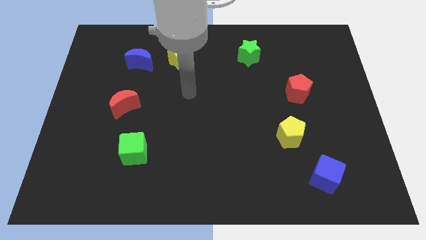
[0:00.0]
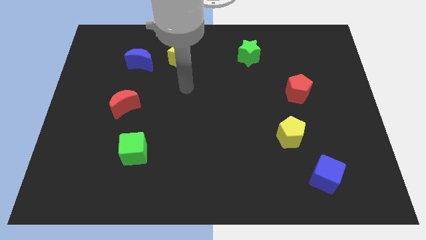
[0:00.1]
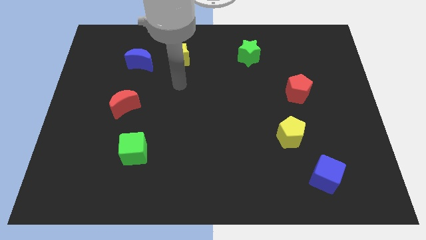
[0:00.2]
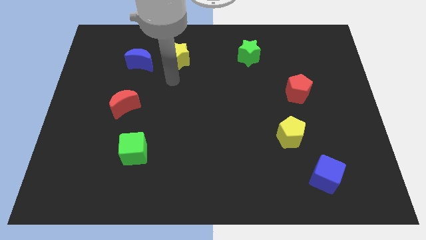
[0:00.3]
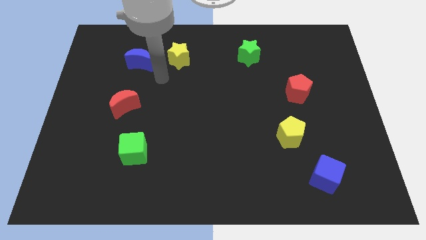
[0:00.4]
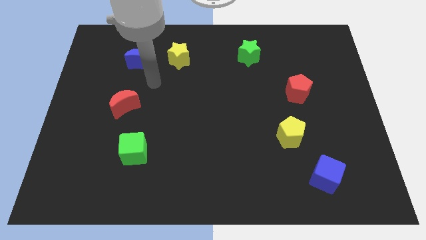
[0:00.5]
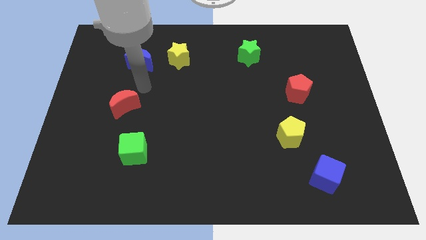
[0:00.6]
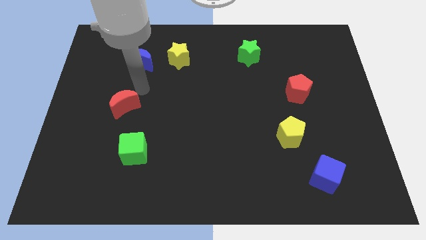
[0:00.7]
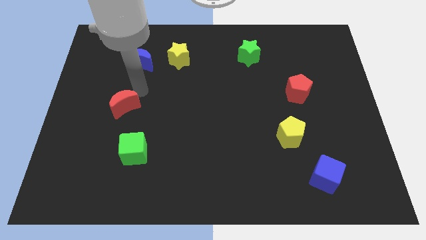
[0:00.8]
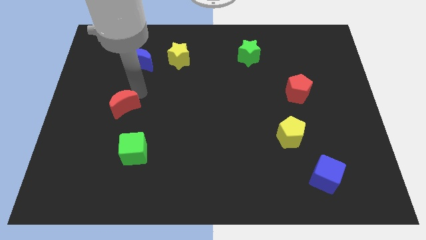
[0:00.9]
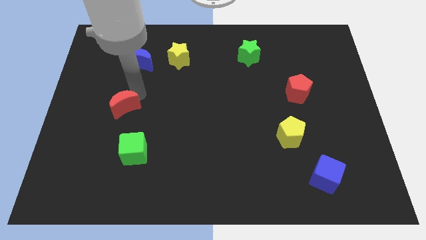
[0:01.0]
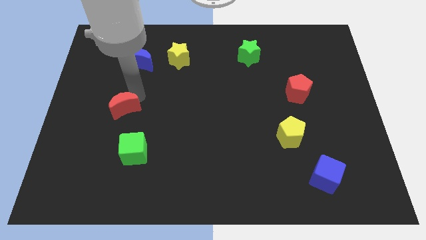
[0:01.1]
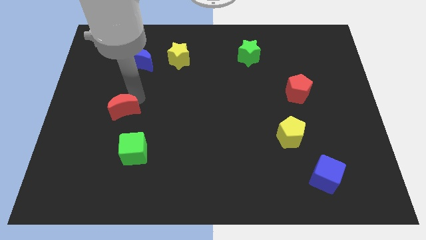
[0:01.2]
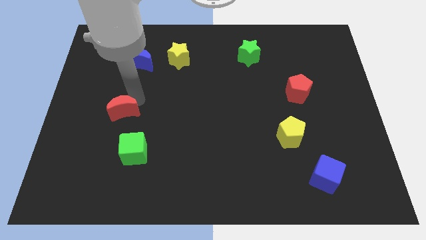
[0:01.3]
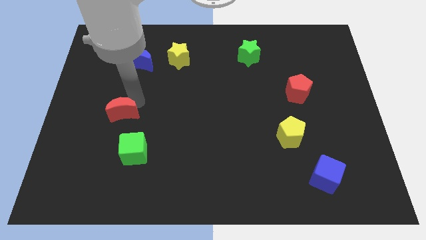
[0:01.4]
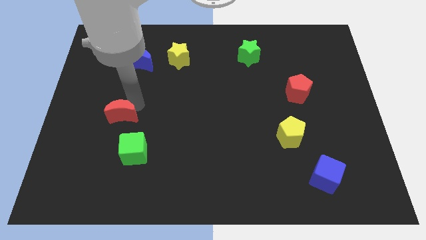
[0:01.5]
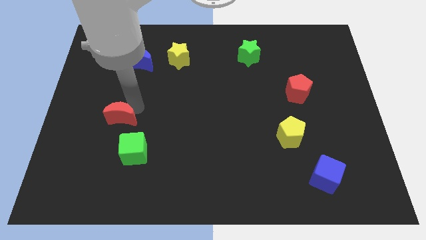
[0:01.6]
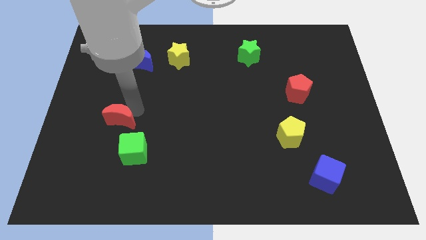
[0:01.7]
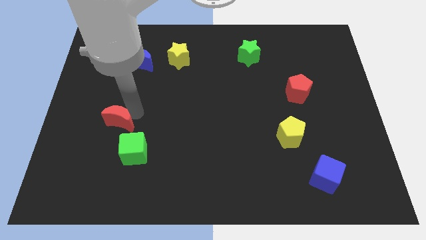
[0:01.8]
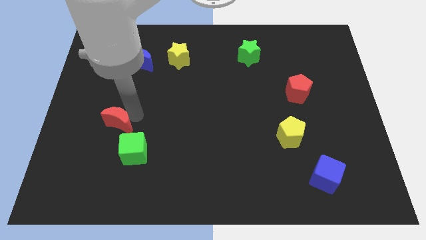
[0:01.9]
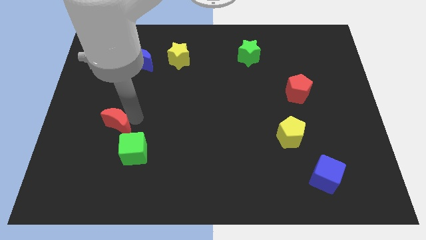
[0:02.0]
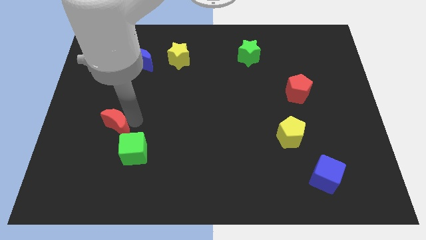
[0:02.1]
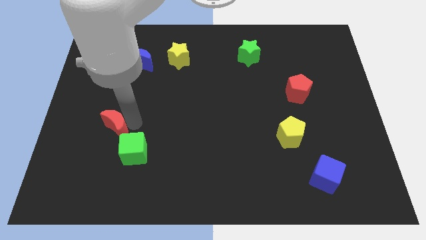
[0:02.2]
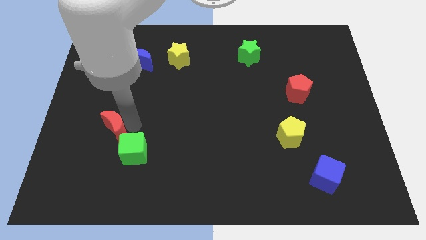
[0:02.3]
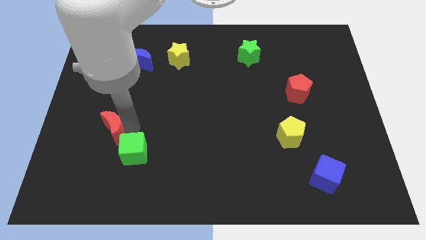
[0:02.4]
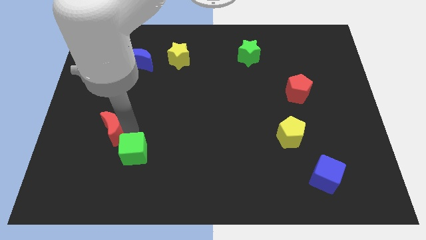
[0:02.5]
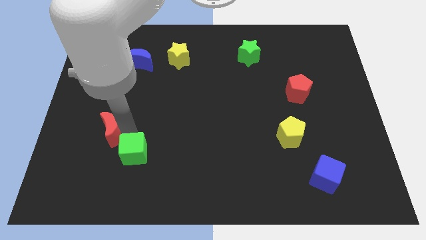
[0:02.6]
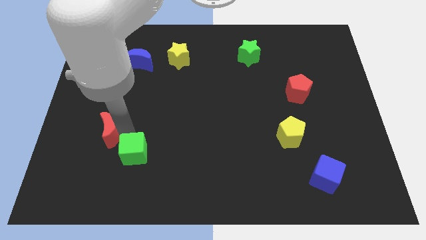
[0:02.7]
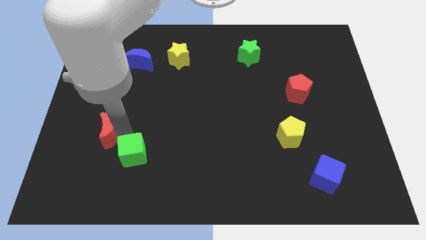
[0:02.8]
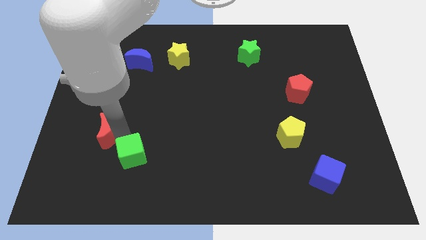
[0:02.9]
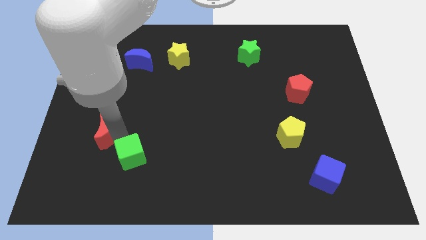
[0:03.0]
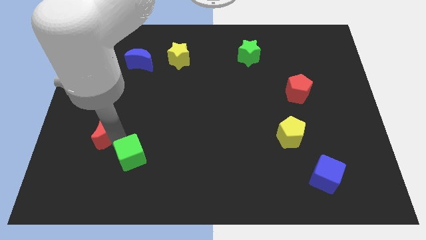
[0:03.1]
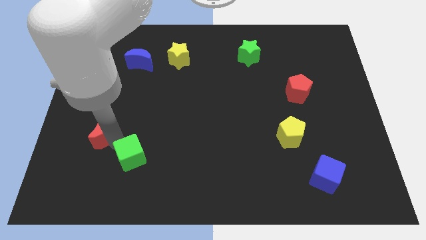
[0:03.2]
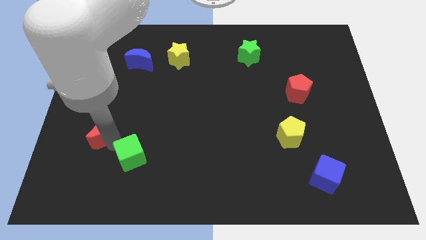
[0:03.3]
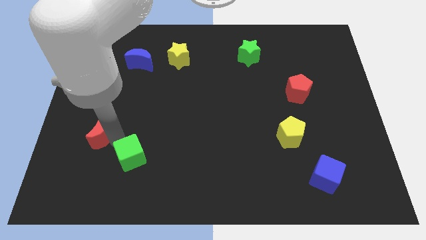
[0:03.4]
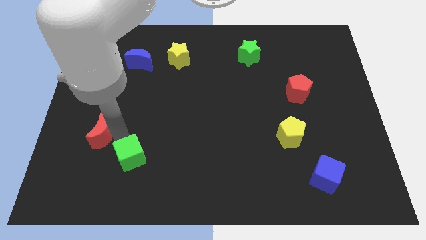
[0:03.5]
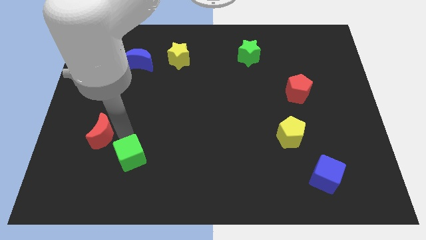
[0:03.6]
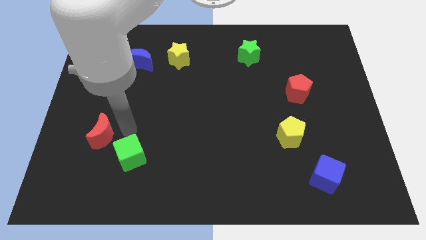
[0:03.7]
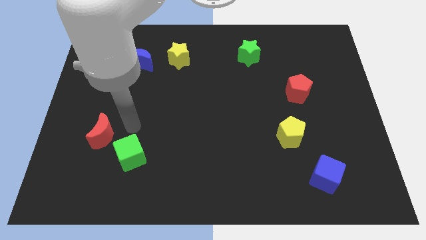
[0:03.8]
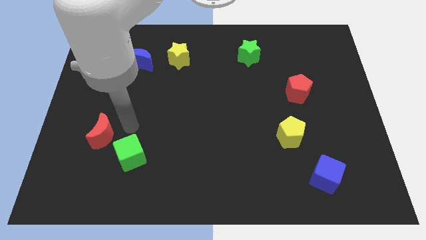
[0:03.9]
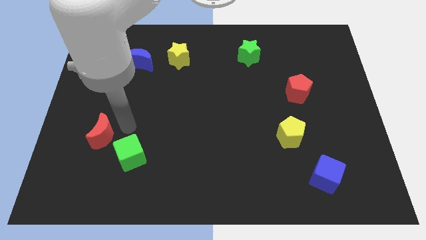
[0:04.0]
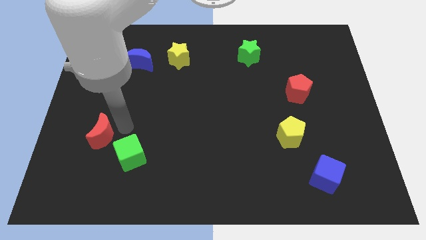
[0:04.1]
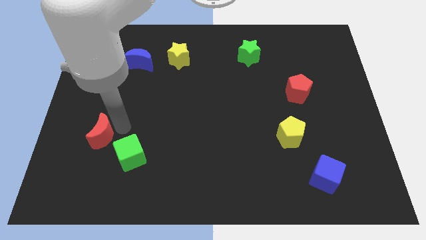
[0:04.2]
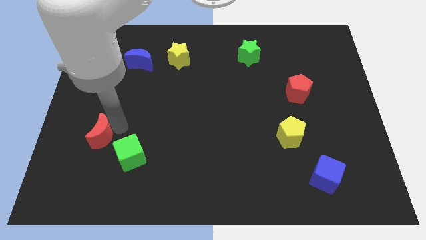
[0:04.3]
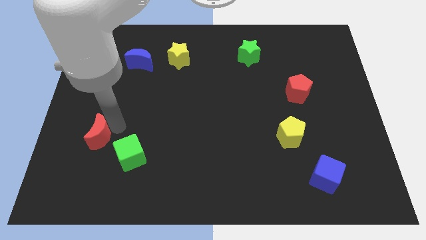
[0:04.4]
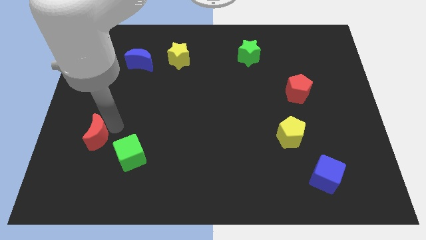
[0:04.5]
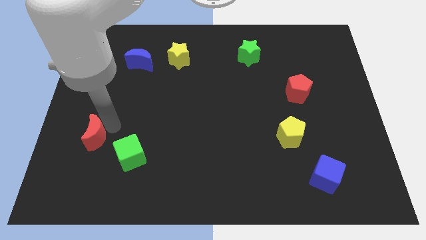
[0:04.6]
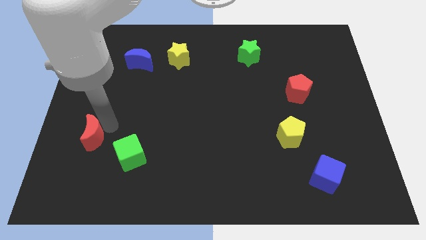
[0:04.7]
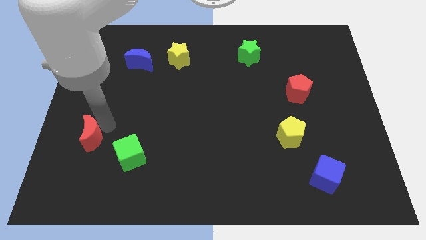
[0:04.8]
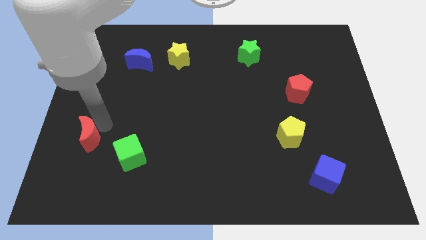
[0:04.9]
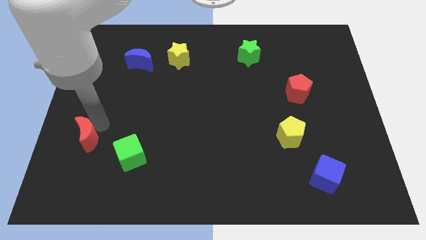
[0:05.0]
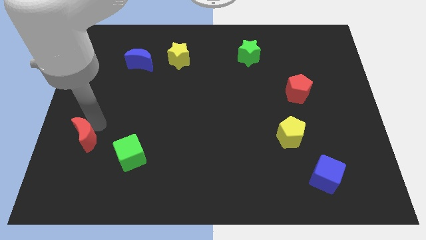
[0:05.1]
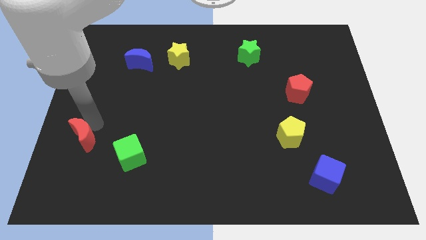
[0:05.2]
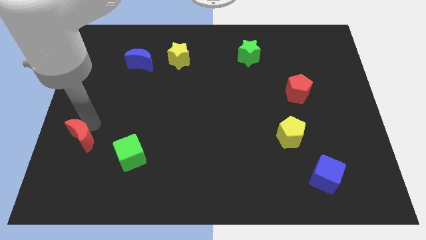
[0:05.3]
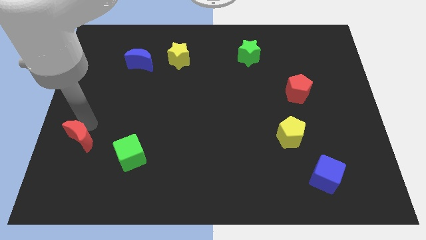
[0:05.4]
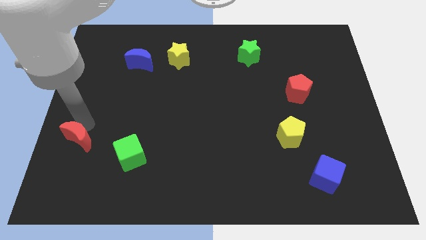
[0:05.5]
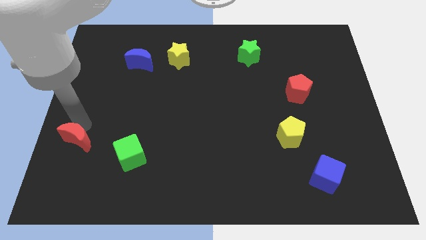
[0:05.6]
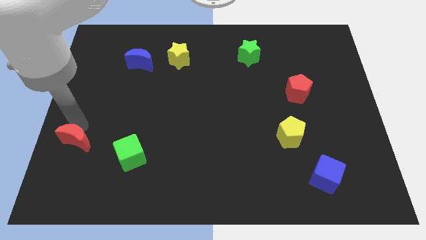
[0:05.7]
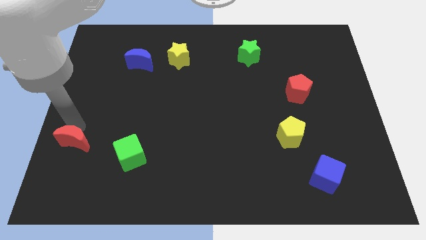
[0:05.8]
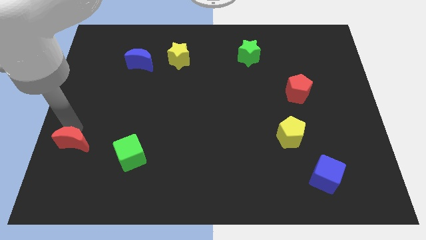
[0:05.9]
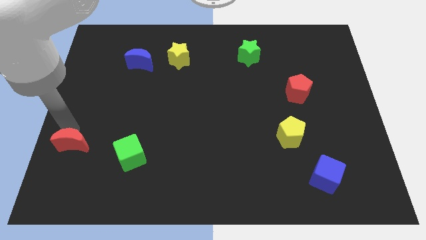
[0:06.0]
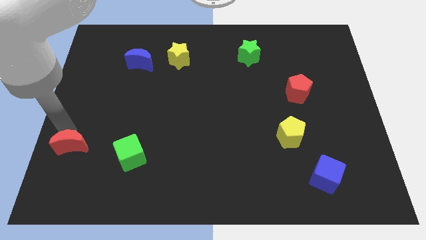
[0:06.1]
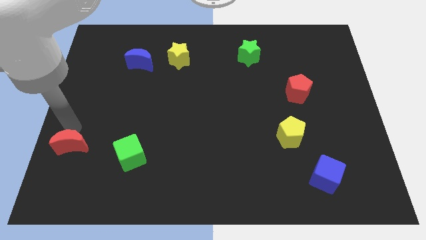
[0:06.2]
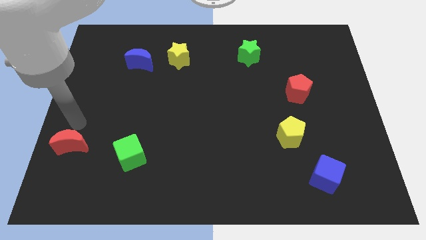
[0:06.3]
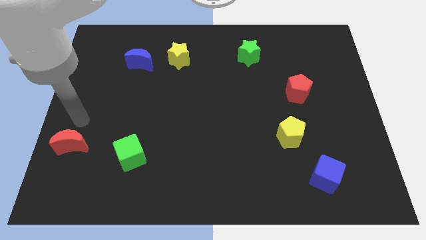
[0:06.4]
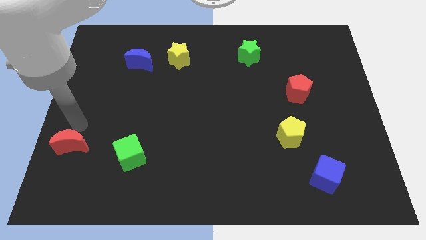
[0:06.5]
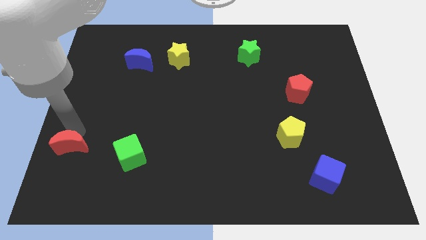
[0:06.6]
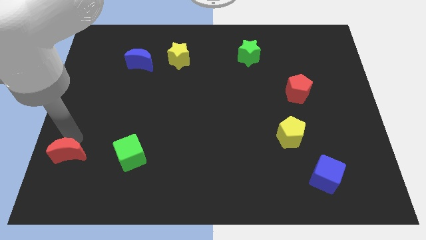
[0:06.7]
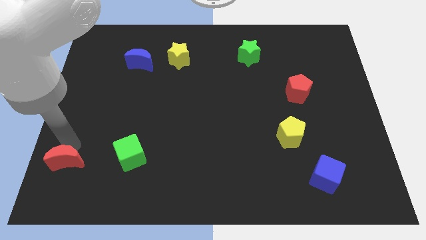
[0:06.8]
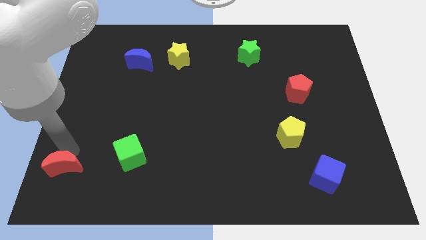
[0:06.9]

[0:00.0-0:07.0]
slide the red moon to the lower left corner
